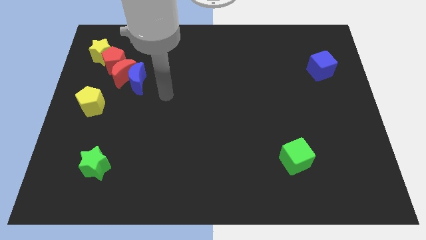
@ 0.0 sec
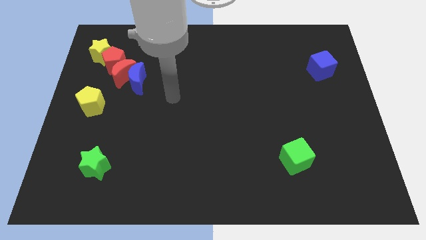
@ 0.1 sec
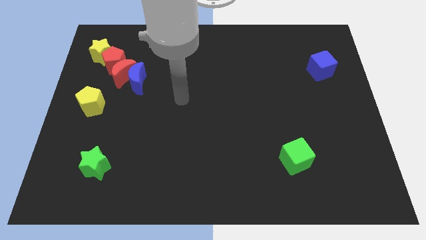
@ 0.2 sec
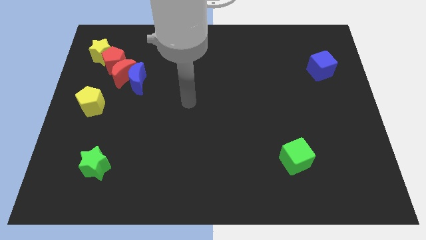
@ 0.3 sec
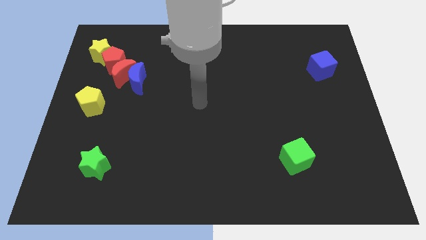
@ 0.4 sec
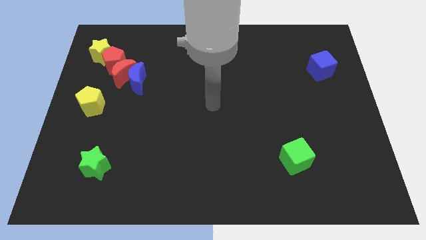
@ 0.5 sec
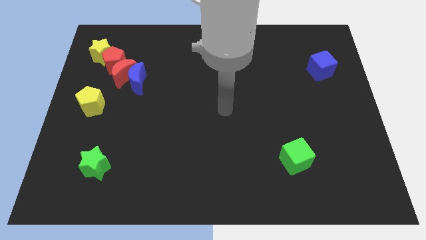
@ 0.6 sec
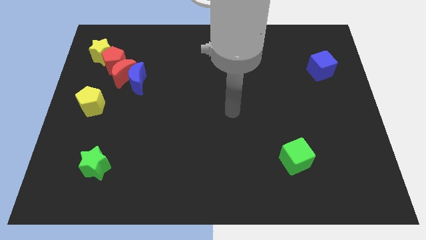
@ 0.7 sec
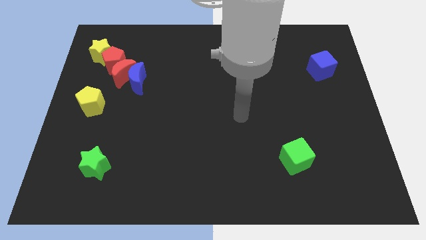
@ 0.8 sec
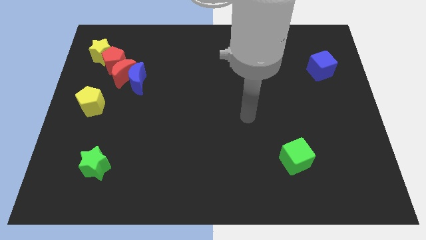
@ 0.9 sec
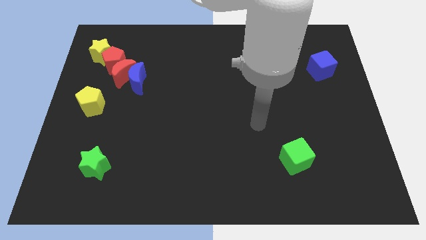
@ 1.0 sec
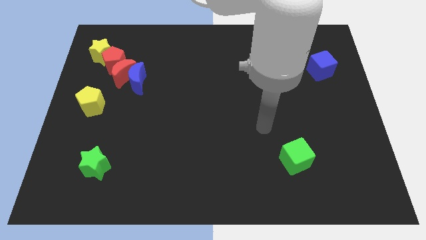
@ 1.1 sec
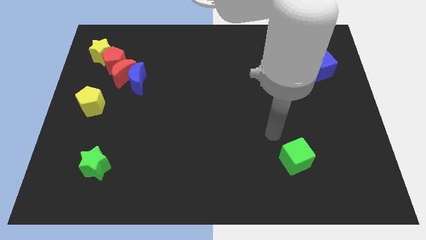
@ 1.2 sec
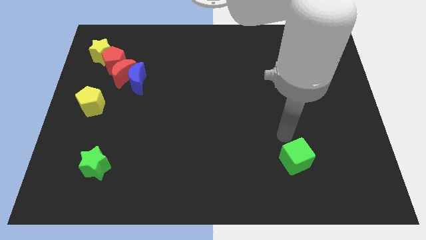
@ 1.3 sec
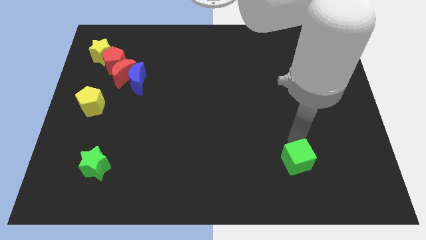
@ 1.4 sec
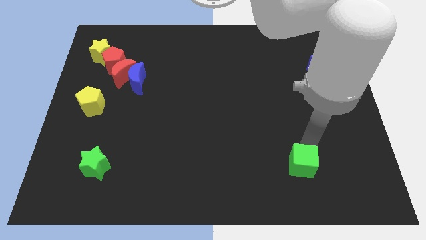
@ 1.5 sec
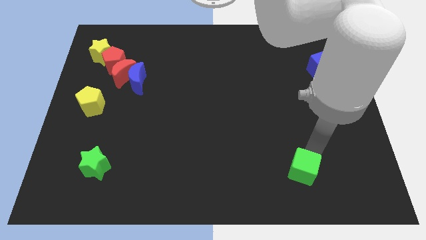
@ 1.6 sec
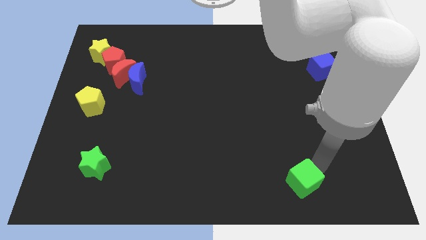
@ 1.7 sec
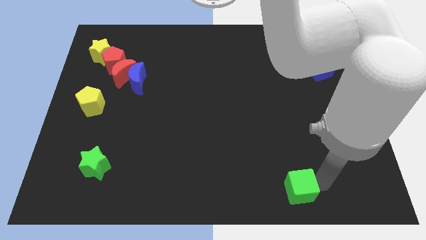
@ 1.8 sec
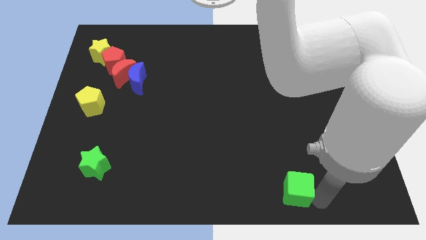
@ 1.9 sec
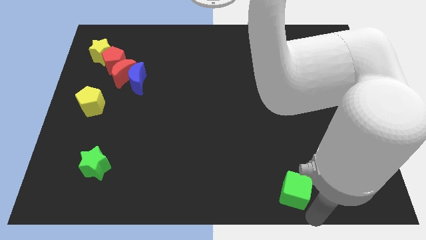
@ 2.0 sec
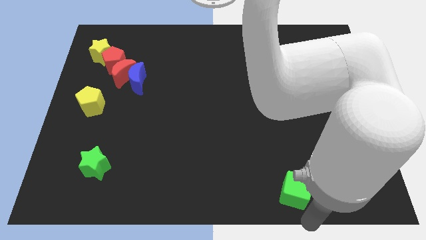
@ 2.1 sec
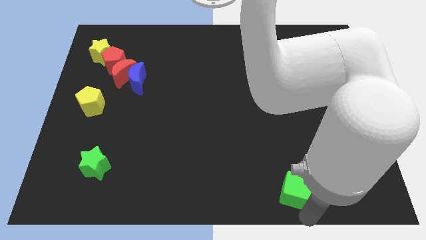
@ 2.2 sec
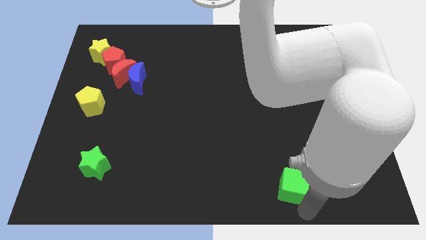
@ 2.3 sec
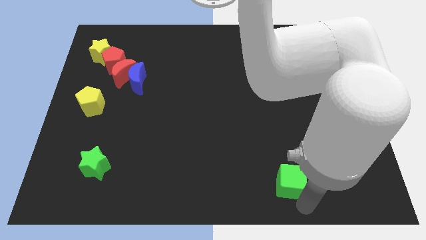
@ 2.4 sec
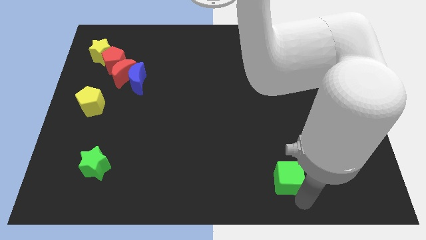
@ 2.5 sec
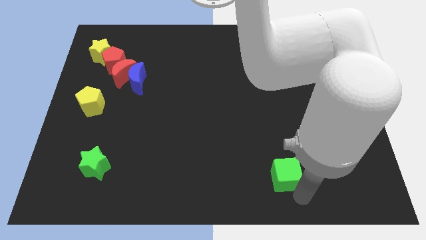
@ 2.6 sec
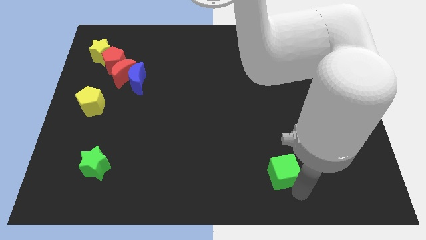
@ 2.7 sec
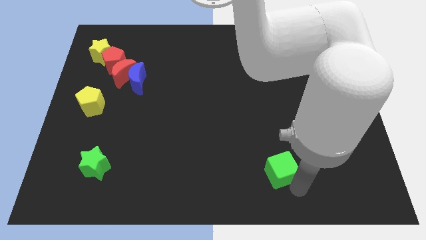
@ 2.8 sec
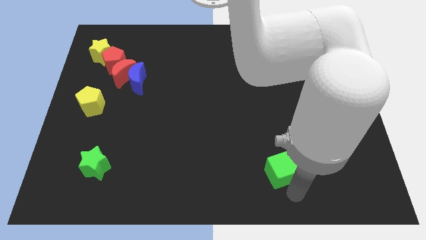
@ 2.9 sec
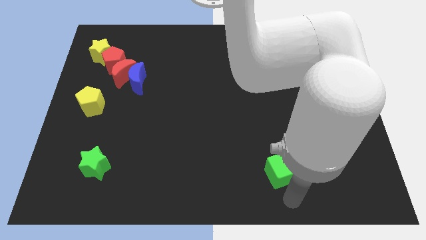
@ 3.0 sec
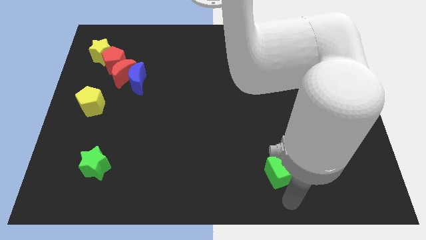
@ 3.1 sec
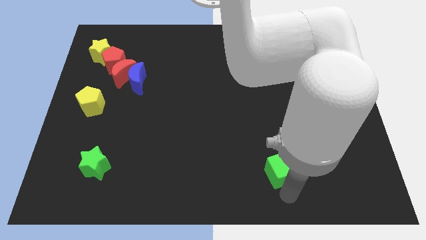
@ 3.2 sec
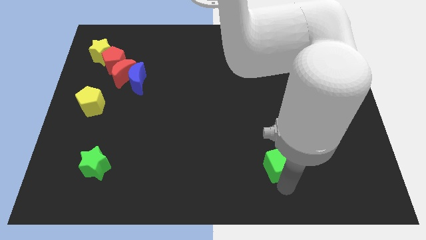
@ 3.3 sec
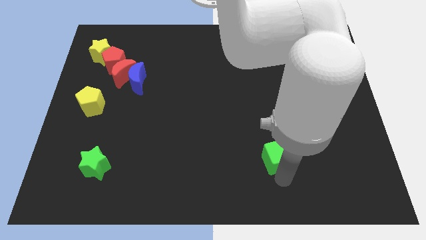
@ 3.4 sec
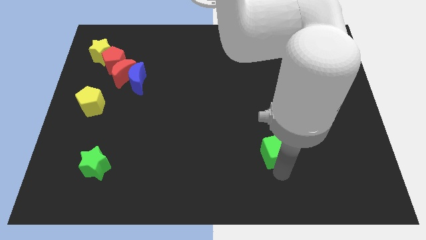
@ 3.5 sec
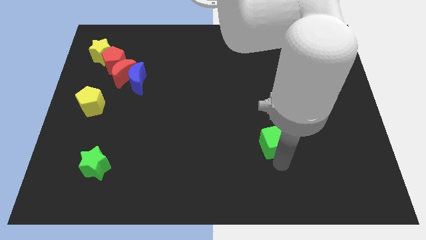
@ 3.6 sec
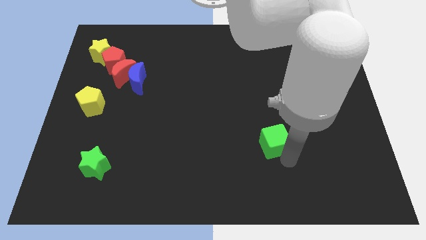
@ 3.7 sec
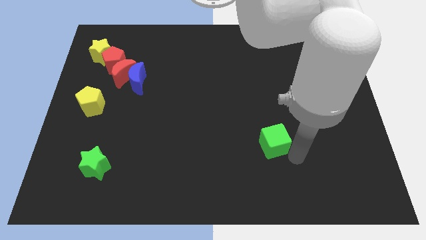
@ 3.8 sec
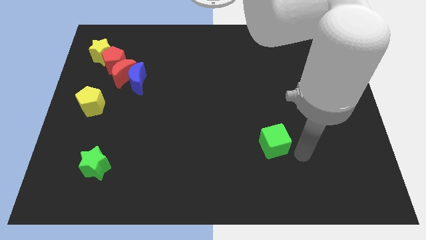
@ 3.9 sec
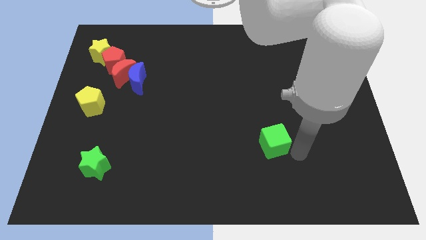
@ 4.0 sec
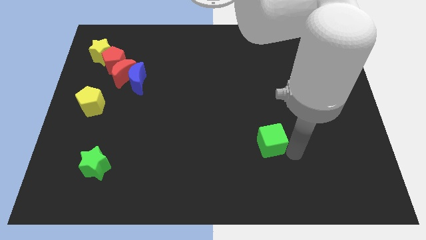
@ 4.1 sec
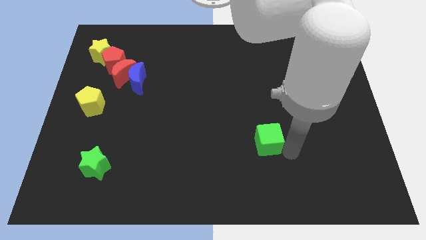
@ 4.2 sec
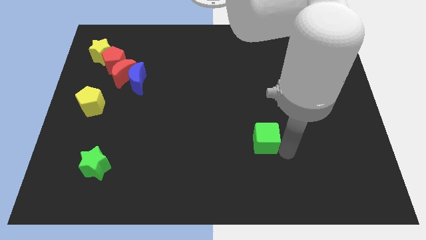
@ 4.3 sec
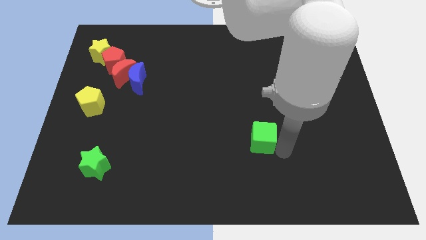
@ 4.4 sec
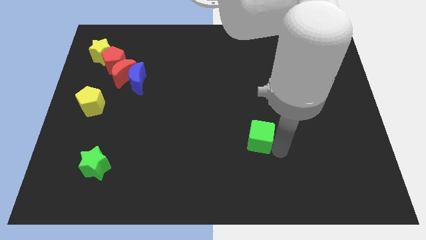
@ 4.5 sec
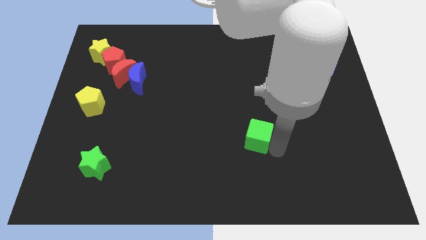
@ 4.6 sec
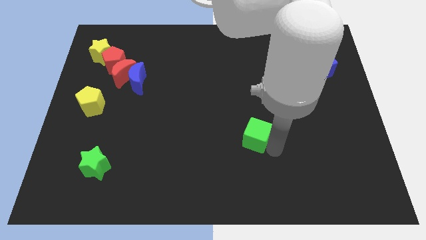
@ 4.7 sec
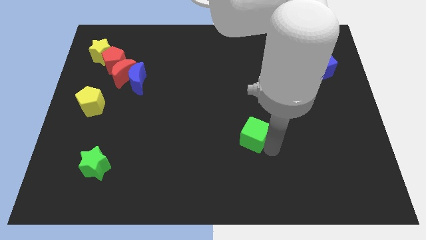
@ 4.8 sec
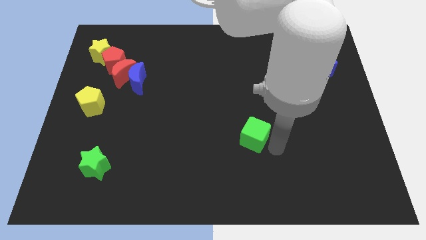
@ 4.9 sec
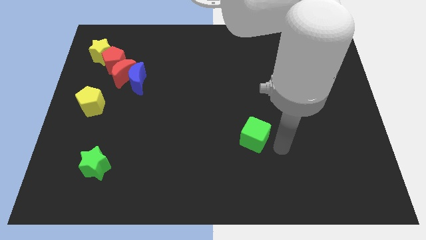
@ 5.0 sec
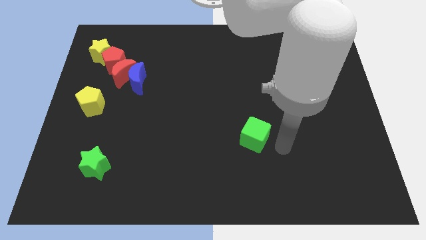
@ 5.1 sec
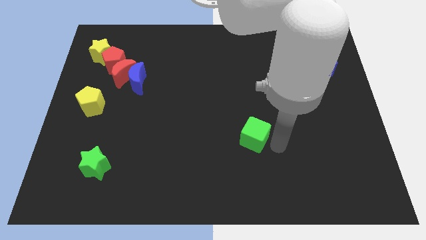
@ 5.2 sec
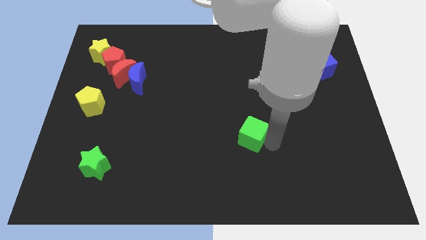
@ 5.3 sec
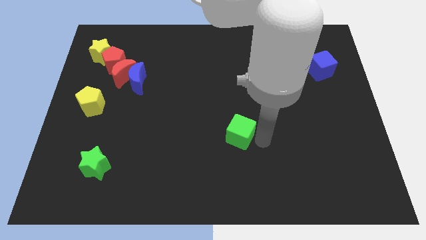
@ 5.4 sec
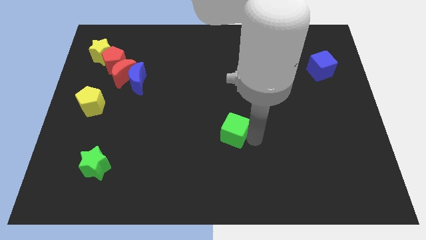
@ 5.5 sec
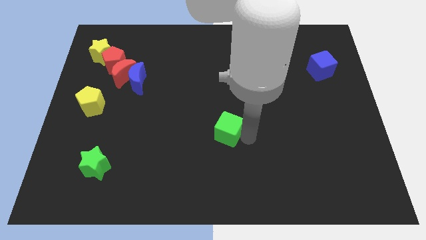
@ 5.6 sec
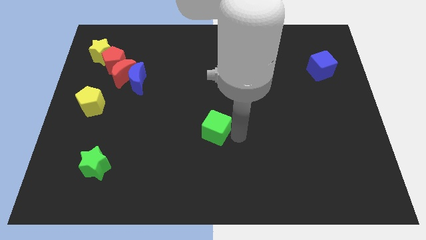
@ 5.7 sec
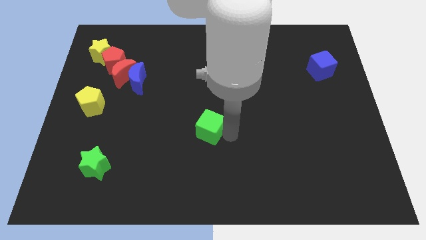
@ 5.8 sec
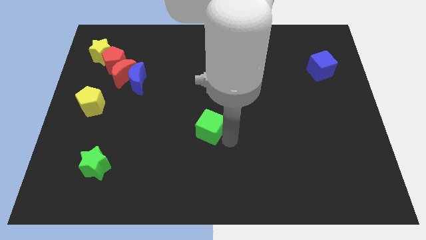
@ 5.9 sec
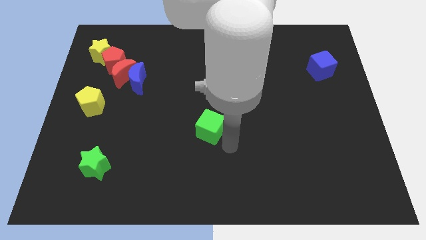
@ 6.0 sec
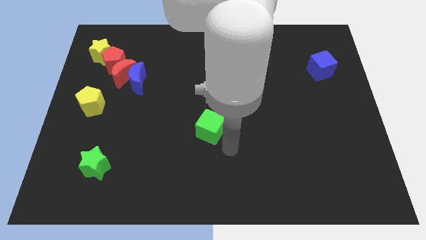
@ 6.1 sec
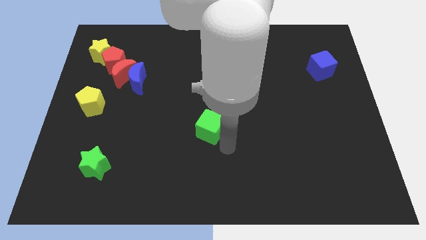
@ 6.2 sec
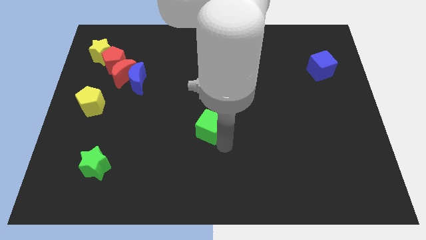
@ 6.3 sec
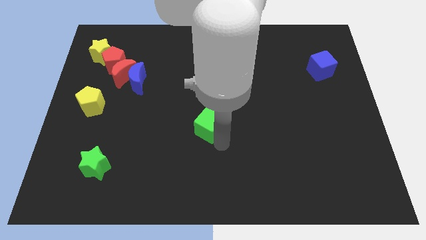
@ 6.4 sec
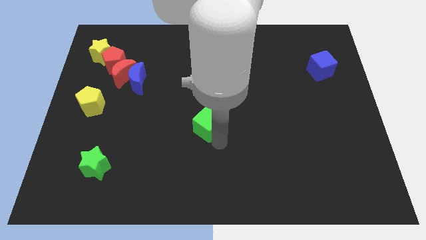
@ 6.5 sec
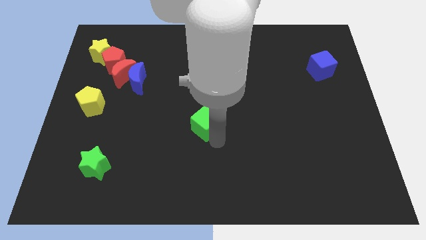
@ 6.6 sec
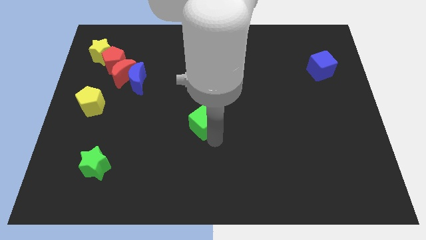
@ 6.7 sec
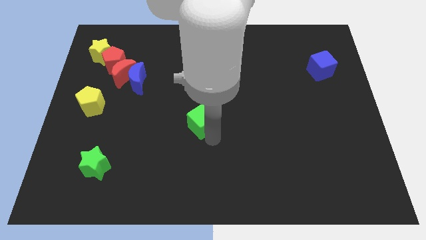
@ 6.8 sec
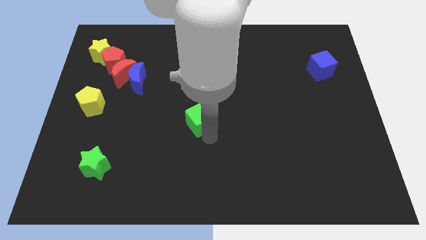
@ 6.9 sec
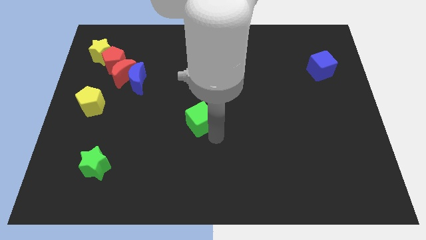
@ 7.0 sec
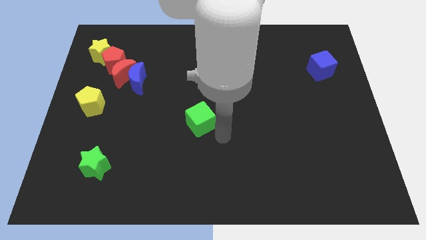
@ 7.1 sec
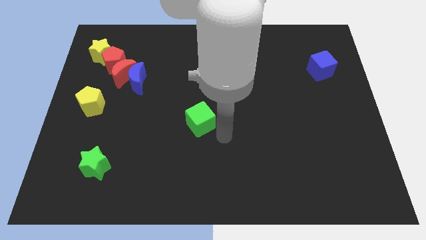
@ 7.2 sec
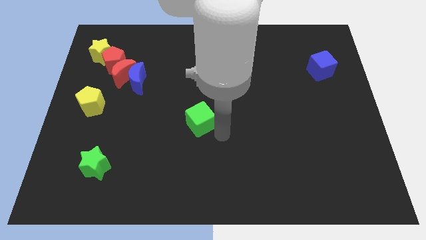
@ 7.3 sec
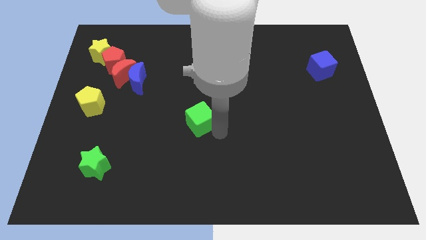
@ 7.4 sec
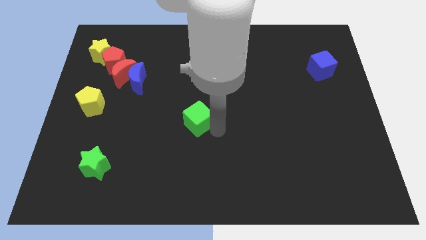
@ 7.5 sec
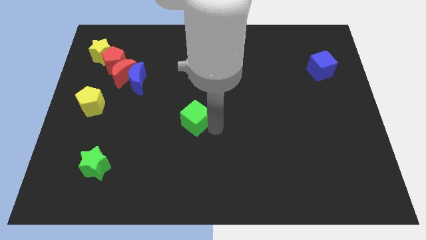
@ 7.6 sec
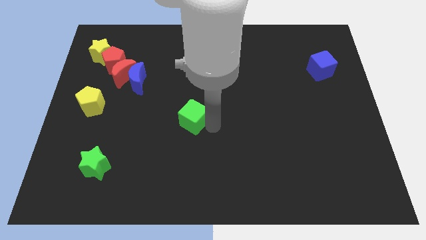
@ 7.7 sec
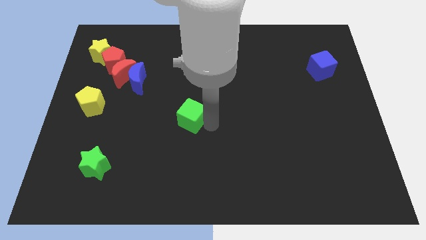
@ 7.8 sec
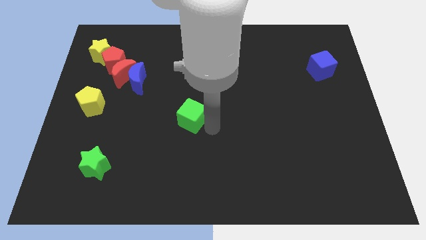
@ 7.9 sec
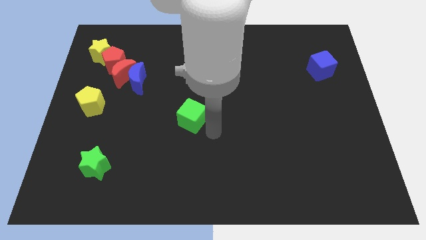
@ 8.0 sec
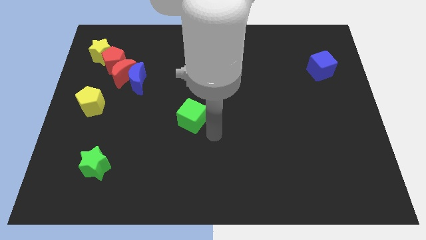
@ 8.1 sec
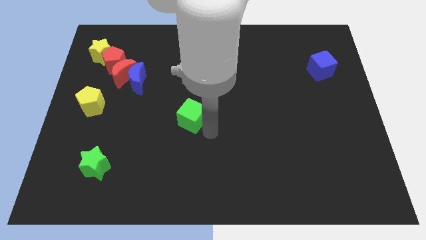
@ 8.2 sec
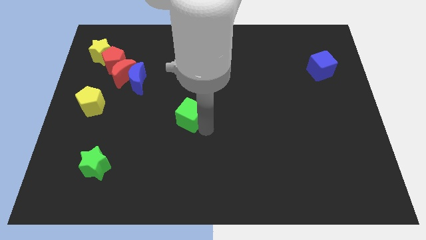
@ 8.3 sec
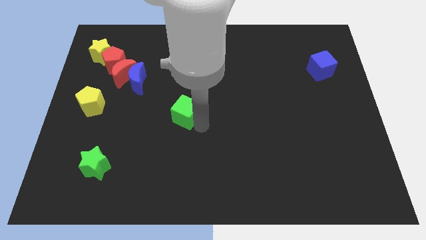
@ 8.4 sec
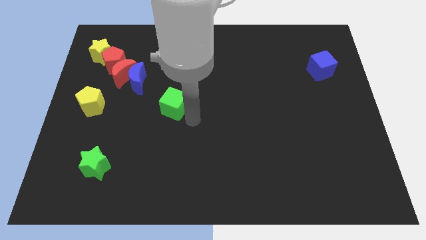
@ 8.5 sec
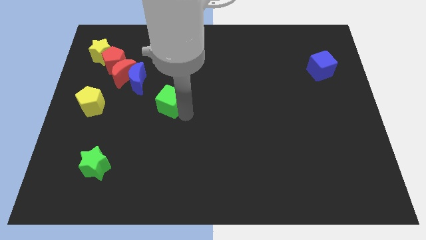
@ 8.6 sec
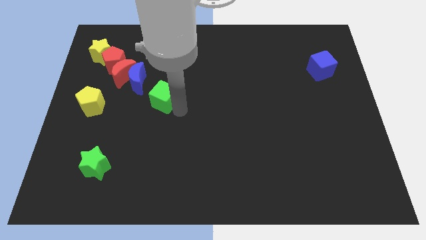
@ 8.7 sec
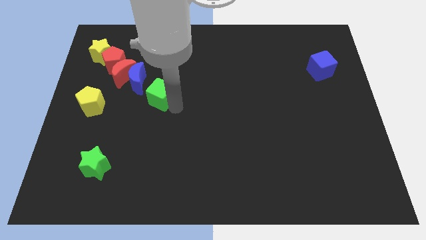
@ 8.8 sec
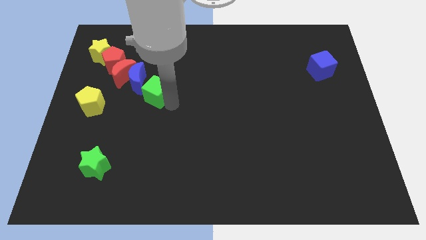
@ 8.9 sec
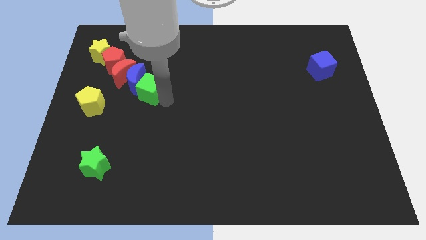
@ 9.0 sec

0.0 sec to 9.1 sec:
push the green cube towards the blue moon
